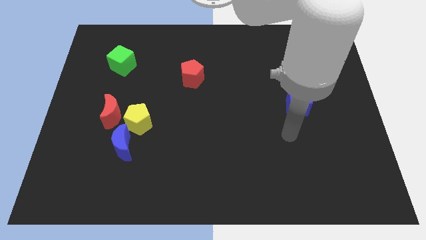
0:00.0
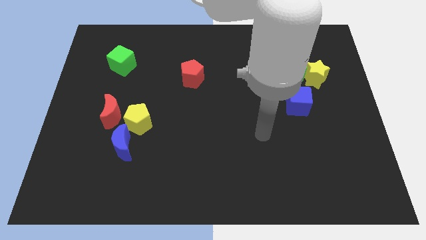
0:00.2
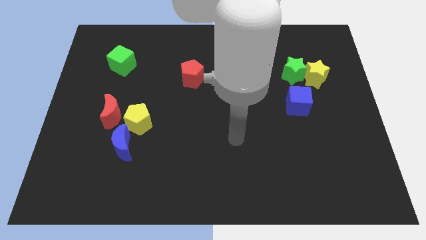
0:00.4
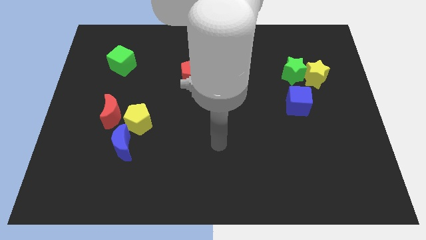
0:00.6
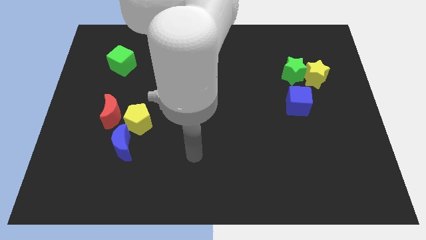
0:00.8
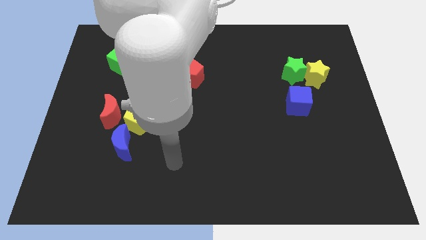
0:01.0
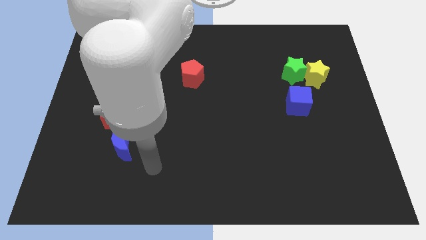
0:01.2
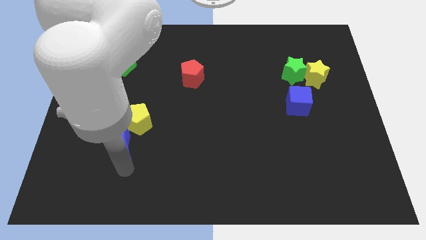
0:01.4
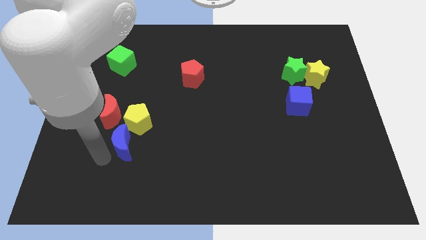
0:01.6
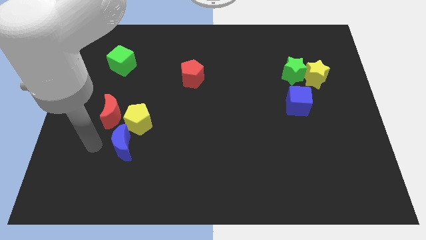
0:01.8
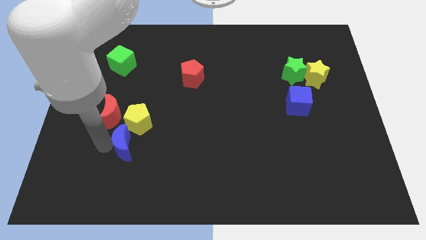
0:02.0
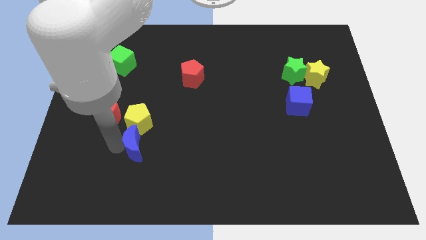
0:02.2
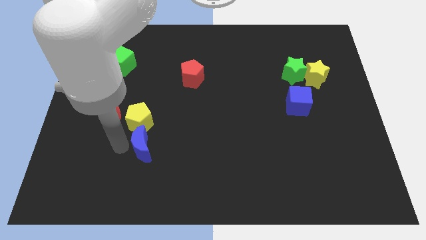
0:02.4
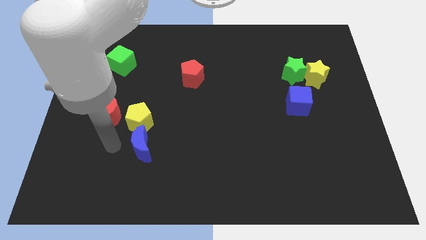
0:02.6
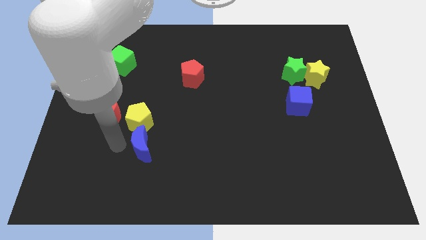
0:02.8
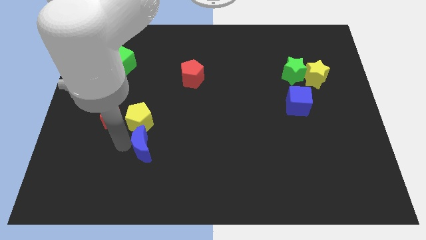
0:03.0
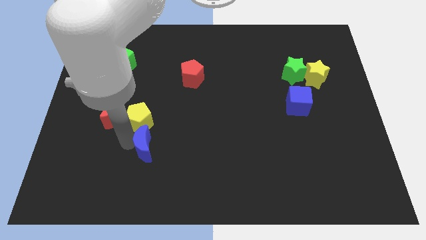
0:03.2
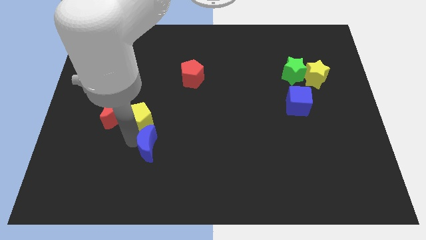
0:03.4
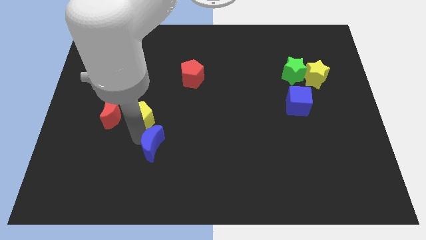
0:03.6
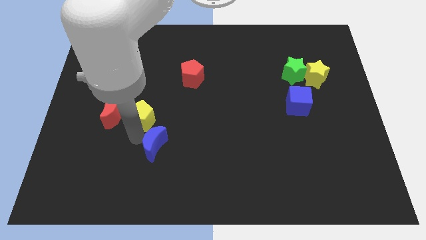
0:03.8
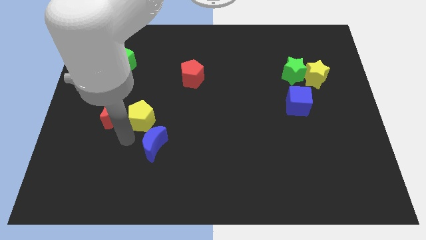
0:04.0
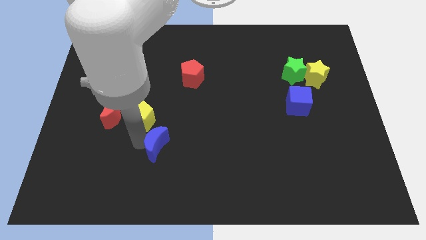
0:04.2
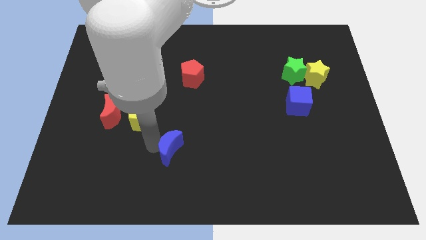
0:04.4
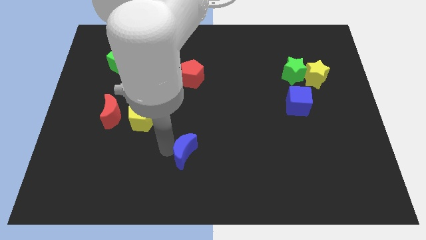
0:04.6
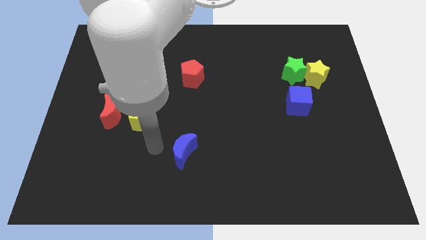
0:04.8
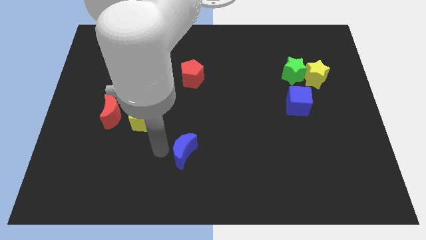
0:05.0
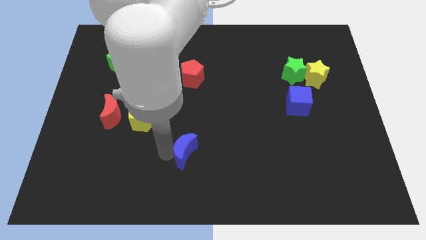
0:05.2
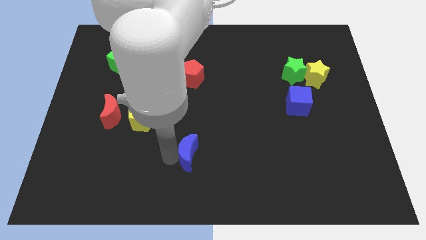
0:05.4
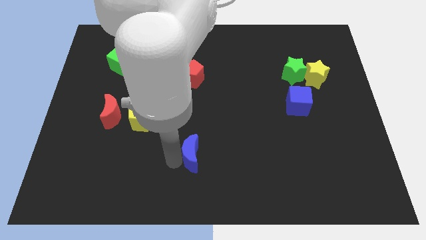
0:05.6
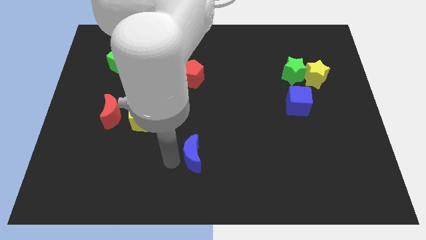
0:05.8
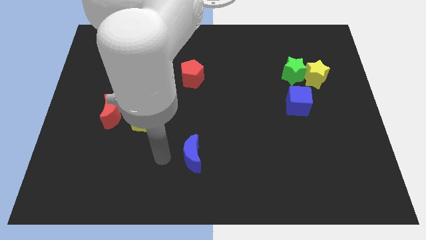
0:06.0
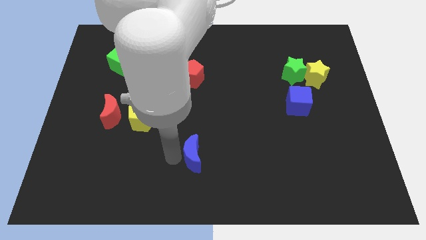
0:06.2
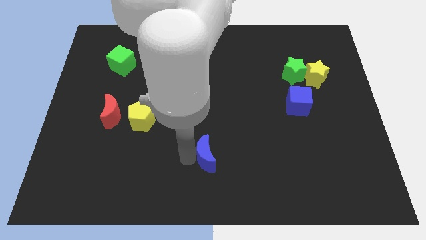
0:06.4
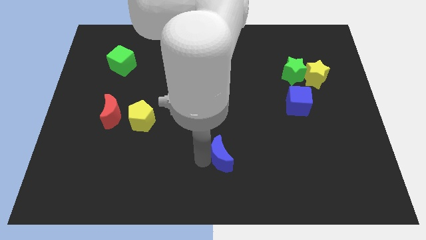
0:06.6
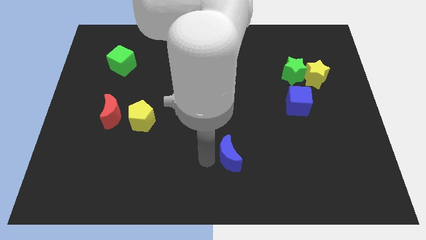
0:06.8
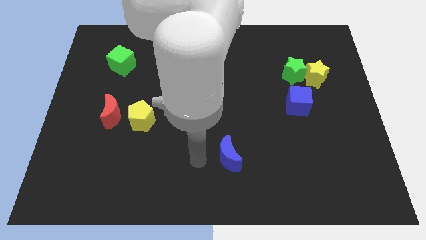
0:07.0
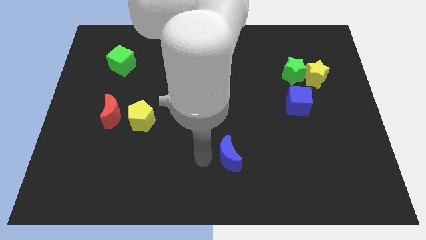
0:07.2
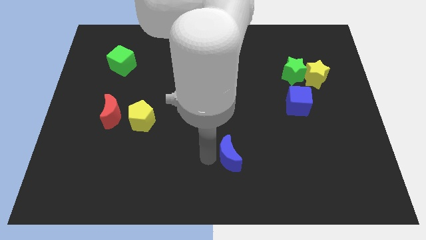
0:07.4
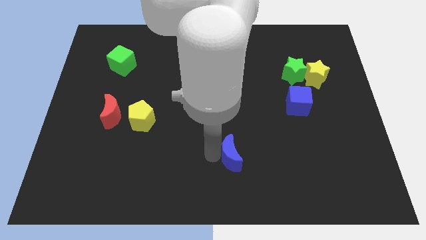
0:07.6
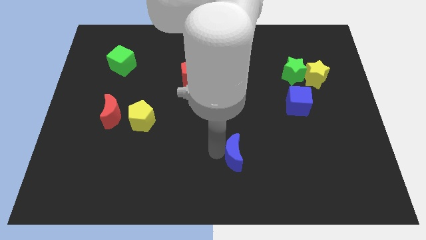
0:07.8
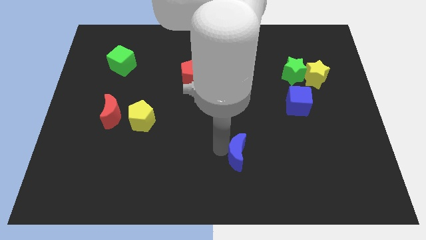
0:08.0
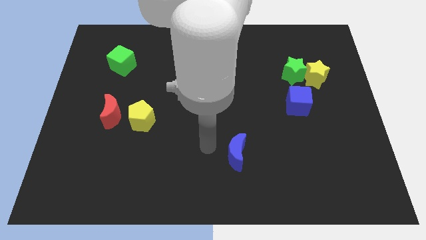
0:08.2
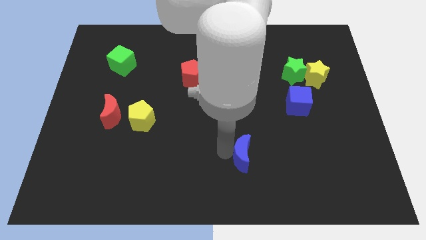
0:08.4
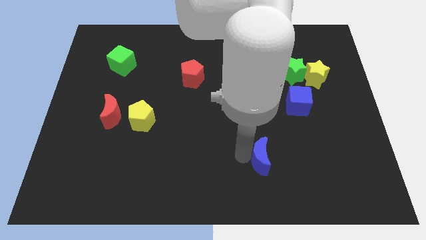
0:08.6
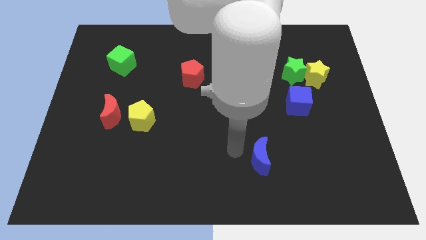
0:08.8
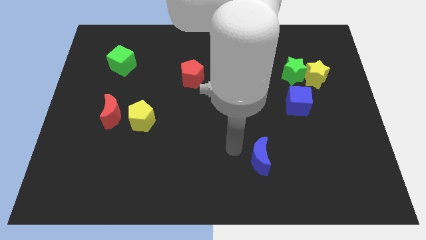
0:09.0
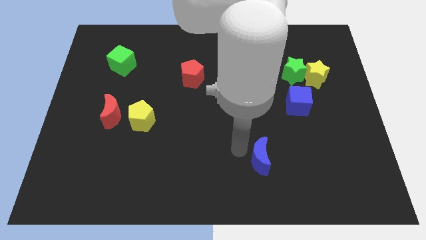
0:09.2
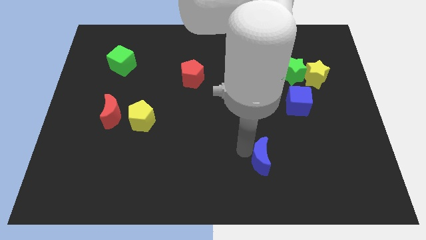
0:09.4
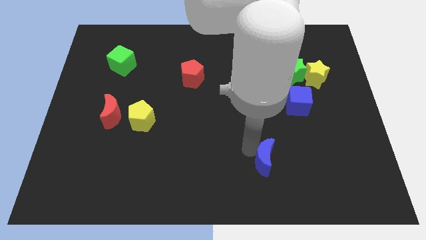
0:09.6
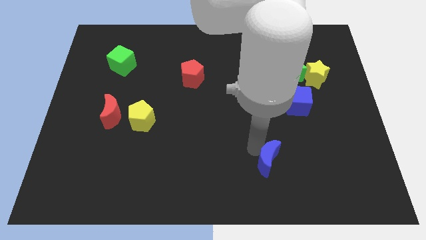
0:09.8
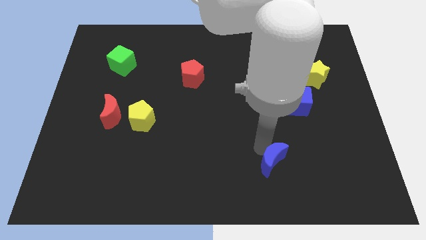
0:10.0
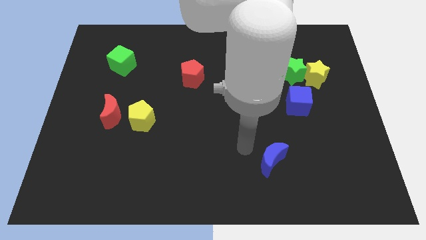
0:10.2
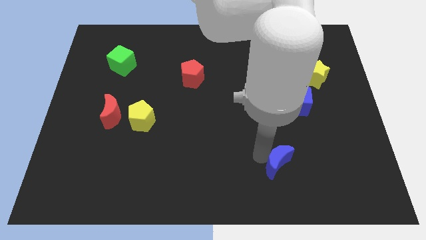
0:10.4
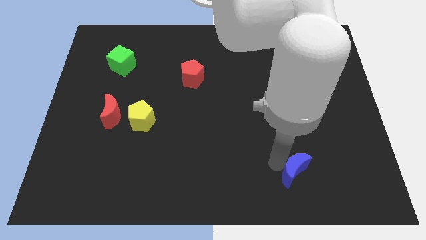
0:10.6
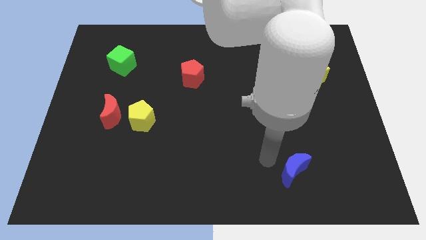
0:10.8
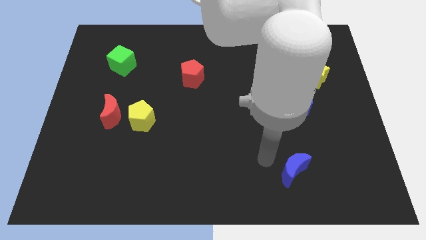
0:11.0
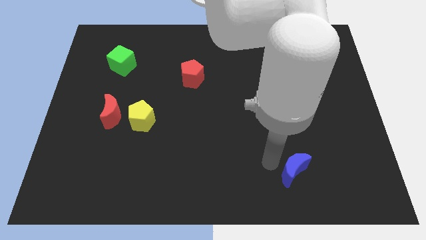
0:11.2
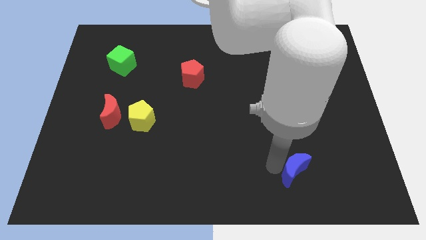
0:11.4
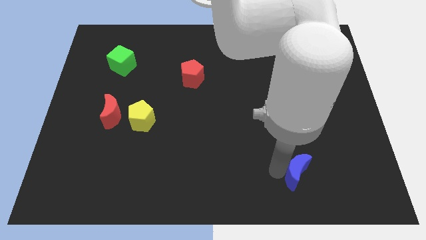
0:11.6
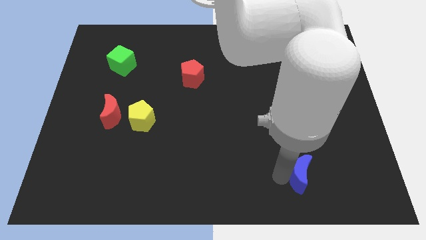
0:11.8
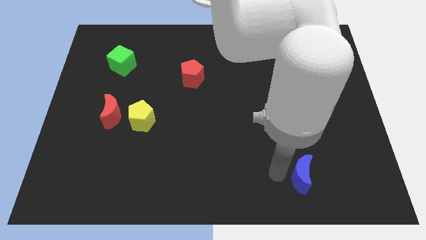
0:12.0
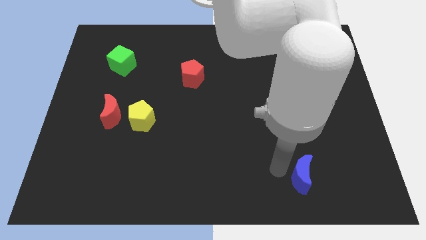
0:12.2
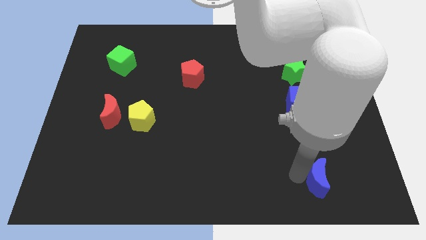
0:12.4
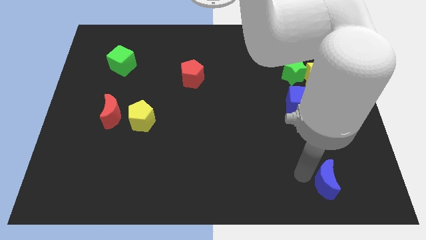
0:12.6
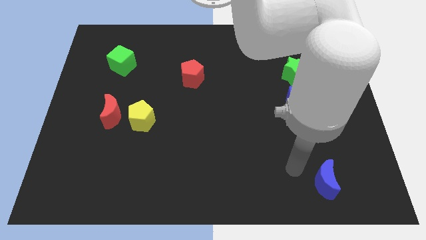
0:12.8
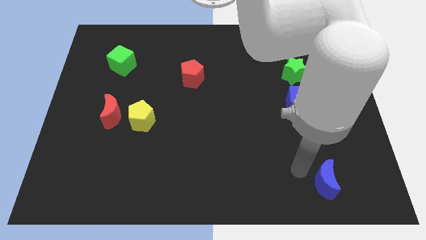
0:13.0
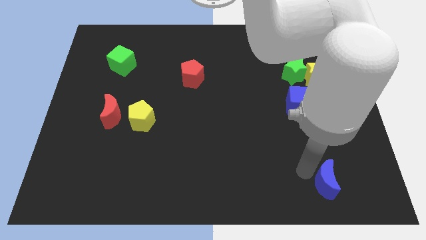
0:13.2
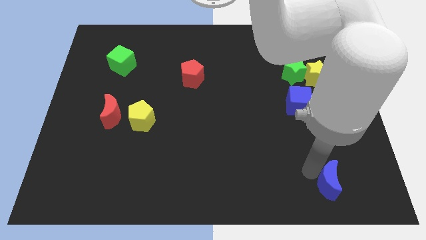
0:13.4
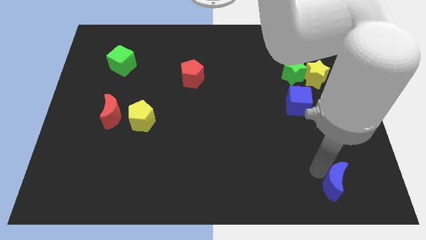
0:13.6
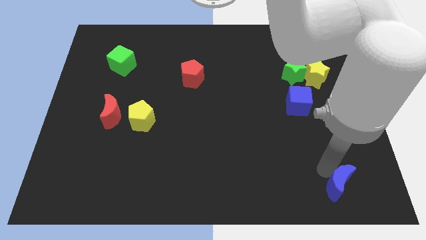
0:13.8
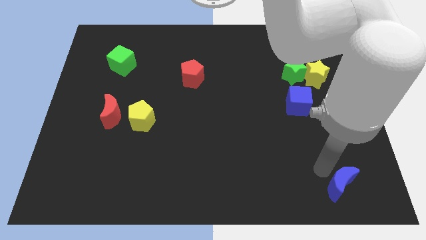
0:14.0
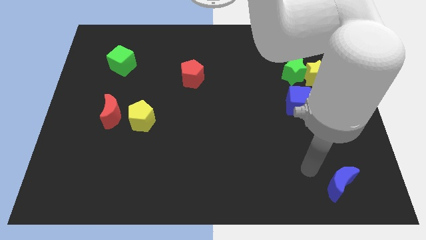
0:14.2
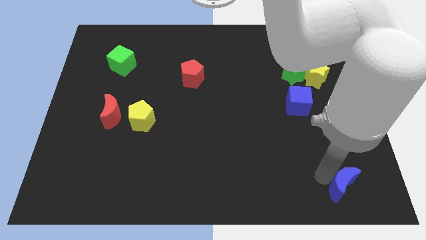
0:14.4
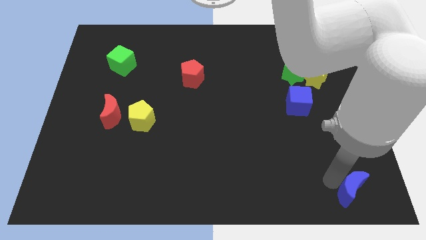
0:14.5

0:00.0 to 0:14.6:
move the blue moon to the bottom right of the board
